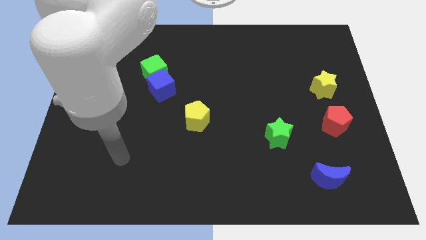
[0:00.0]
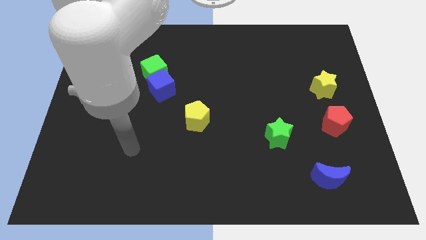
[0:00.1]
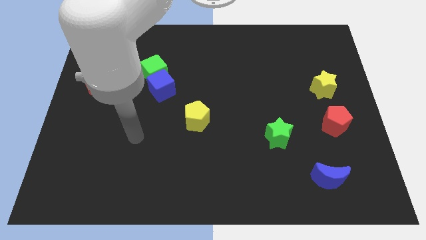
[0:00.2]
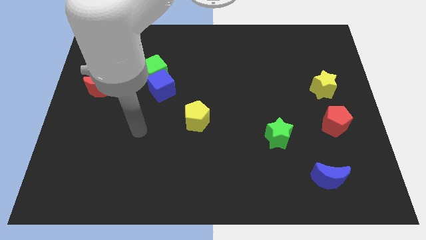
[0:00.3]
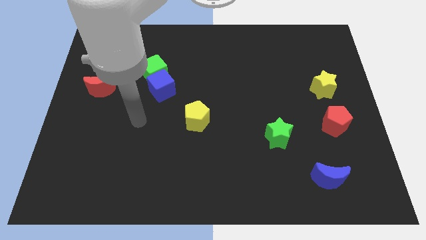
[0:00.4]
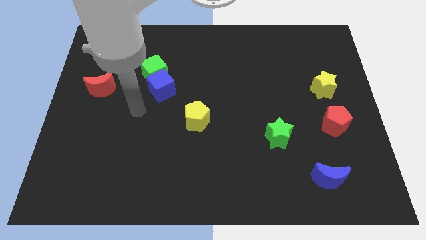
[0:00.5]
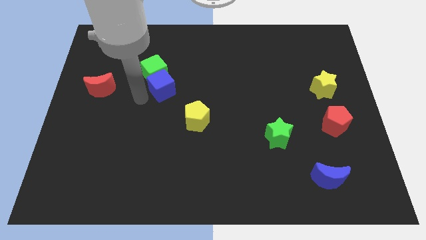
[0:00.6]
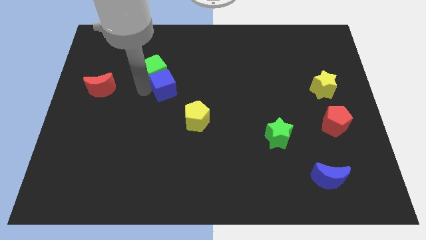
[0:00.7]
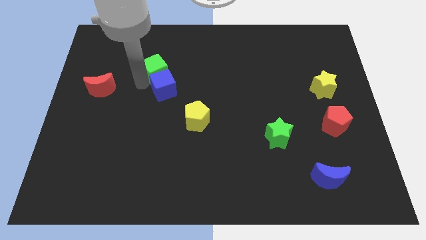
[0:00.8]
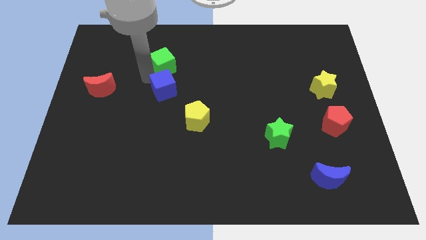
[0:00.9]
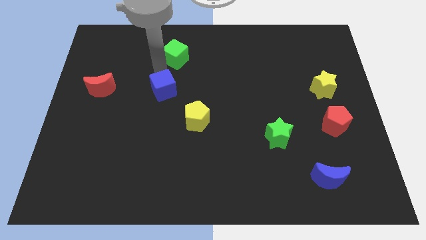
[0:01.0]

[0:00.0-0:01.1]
separate the blue cube from the green cube

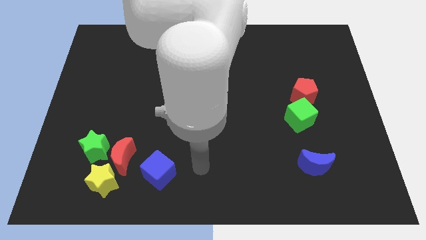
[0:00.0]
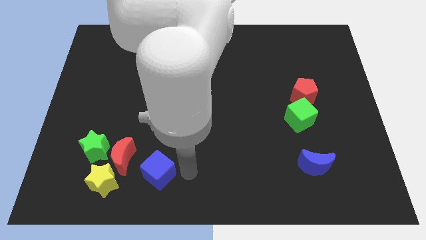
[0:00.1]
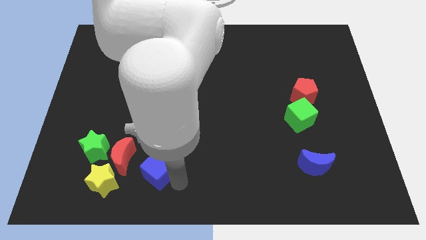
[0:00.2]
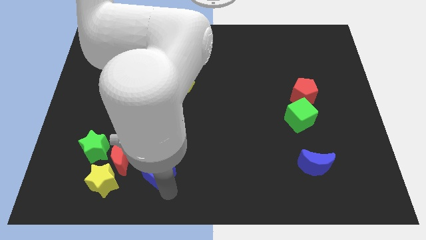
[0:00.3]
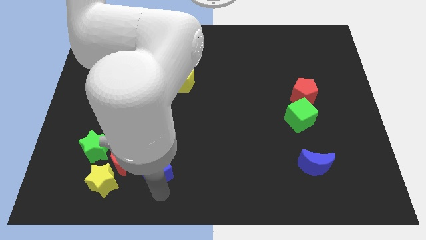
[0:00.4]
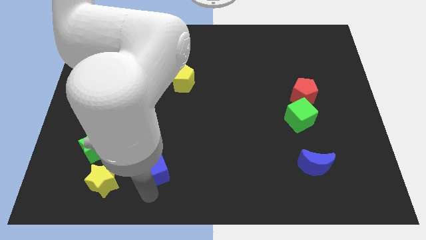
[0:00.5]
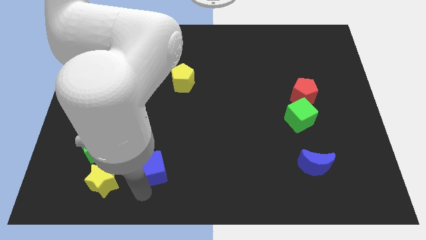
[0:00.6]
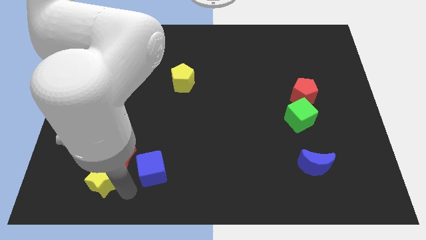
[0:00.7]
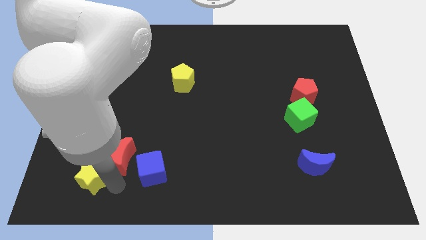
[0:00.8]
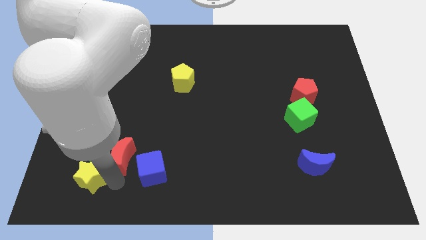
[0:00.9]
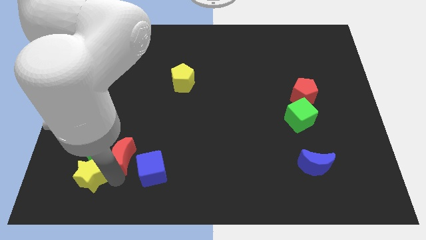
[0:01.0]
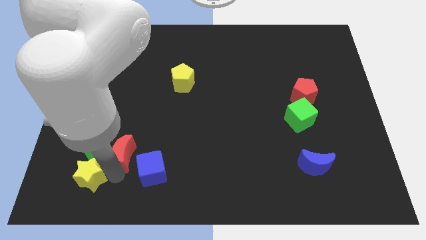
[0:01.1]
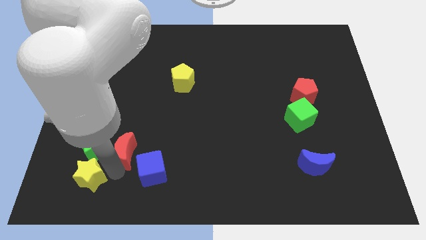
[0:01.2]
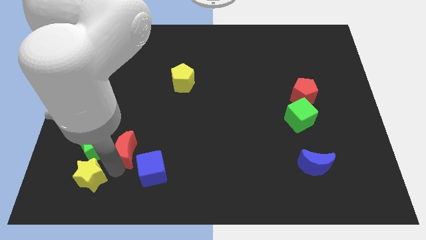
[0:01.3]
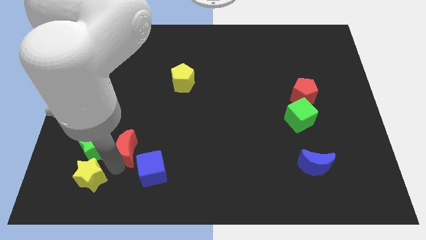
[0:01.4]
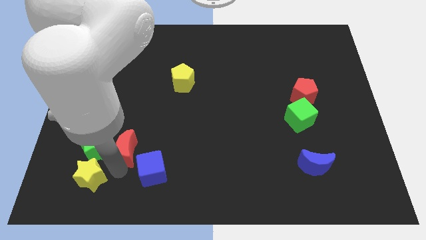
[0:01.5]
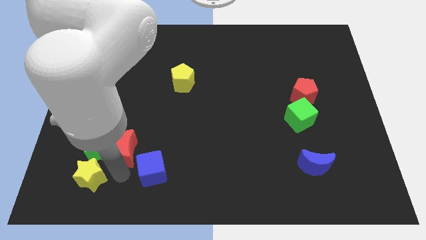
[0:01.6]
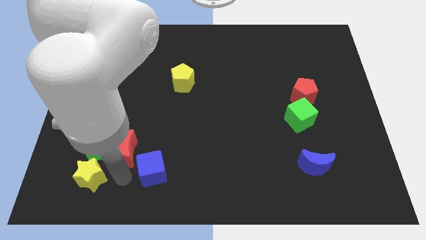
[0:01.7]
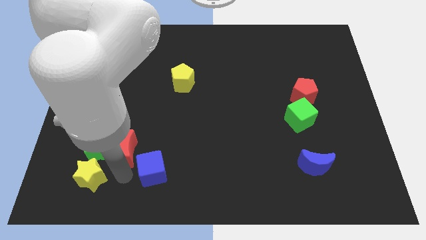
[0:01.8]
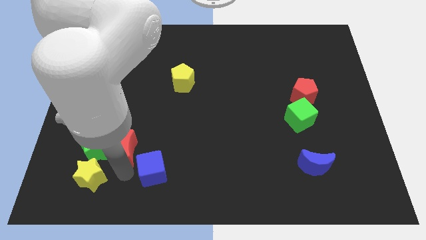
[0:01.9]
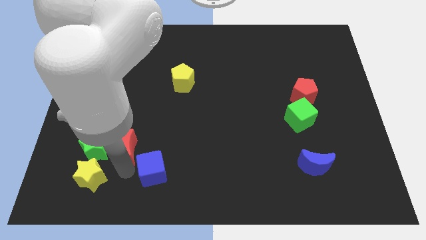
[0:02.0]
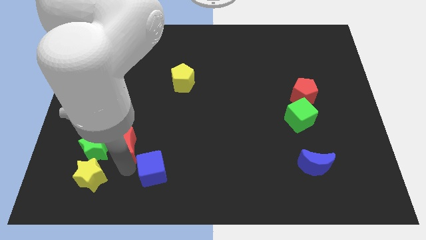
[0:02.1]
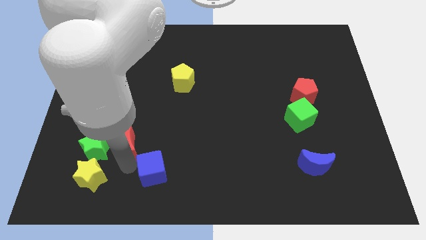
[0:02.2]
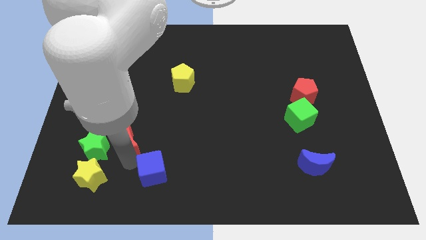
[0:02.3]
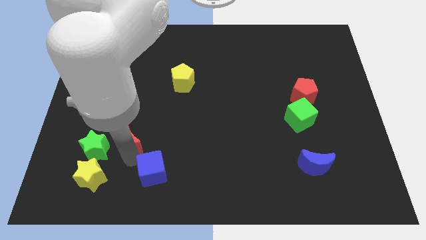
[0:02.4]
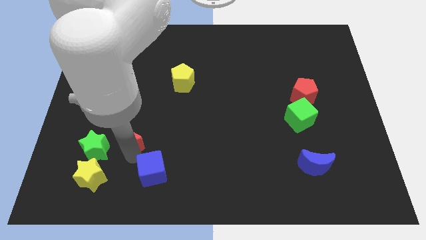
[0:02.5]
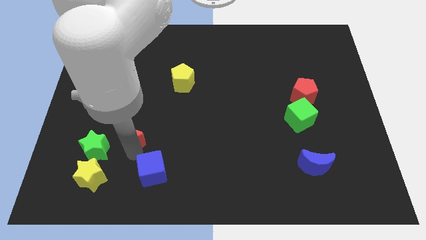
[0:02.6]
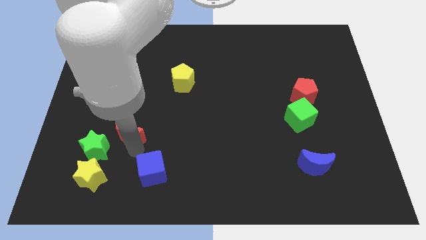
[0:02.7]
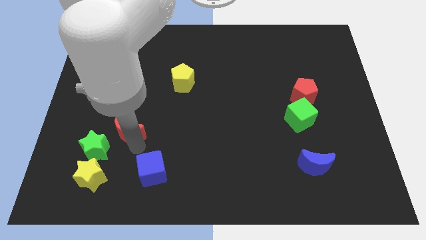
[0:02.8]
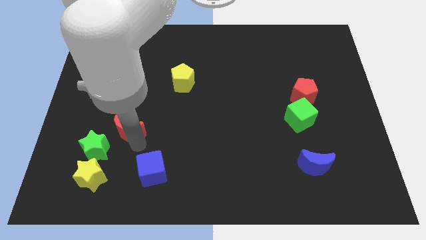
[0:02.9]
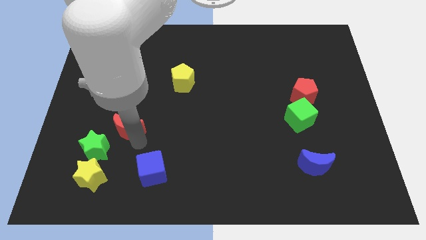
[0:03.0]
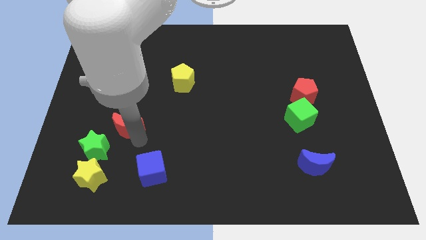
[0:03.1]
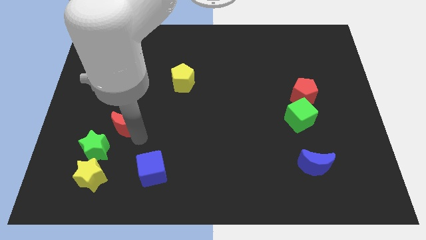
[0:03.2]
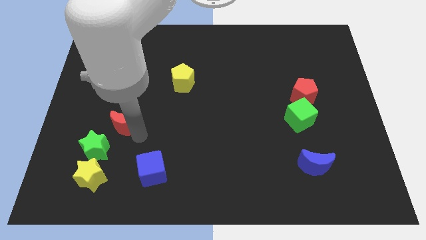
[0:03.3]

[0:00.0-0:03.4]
pull the red moon apart from the group

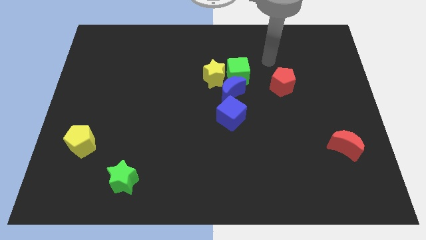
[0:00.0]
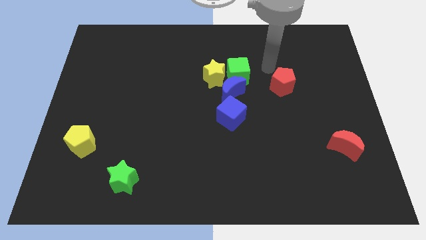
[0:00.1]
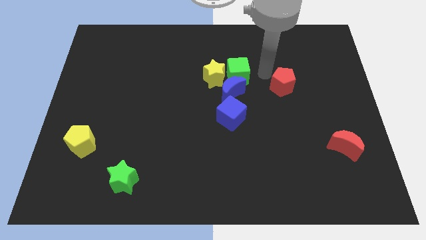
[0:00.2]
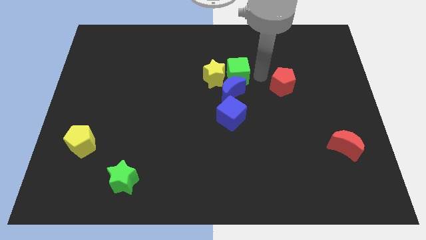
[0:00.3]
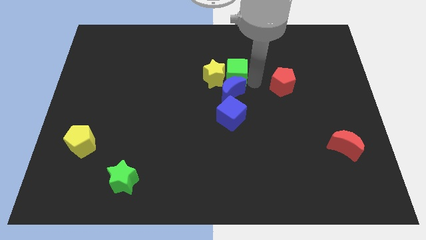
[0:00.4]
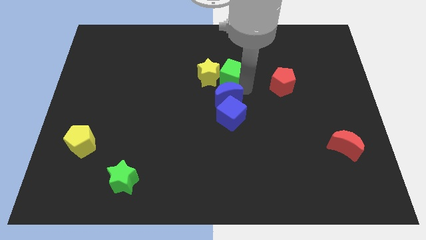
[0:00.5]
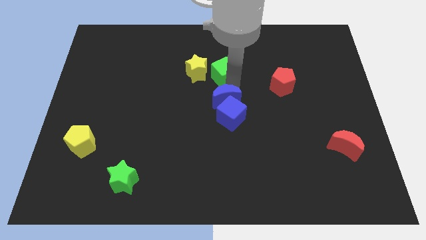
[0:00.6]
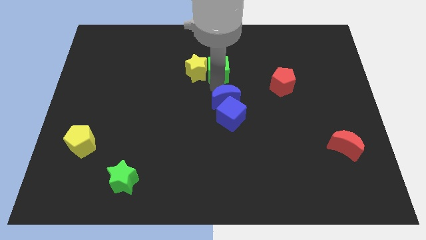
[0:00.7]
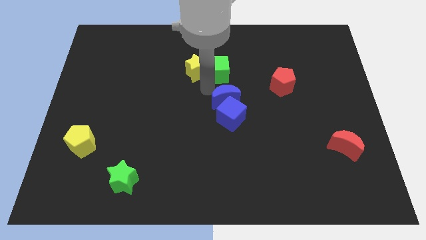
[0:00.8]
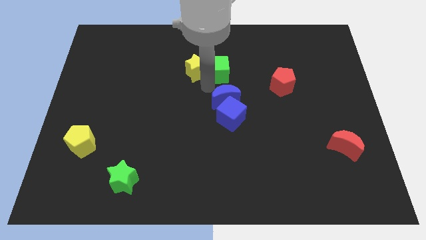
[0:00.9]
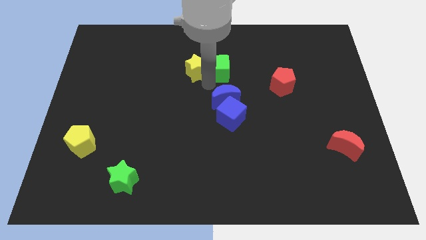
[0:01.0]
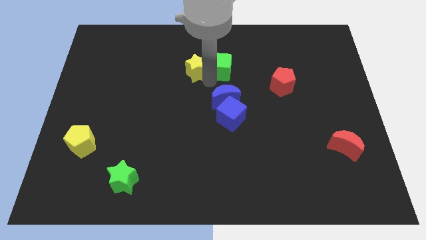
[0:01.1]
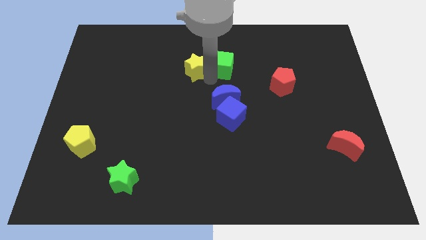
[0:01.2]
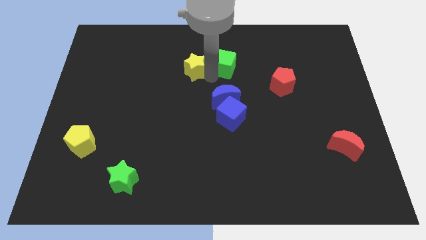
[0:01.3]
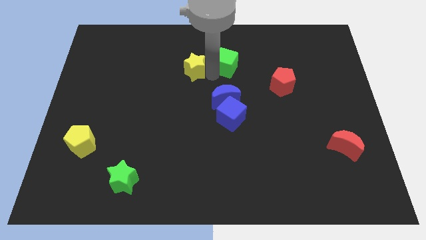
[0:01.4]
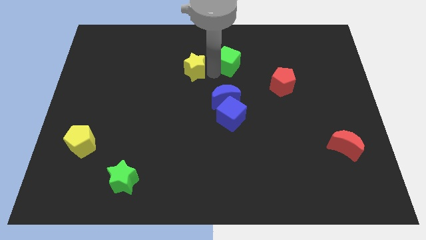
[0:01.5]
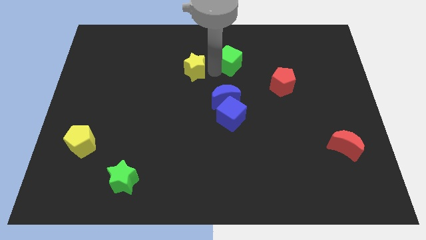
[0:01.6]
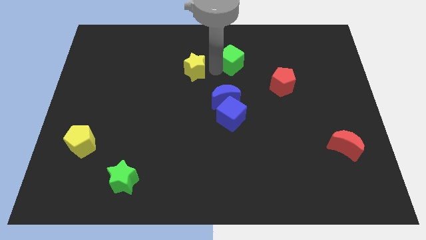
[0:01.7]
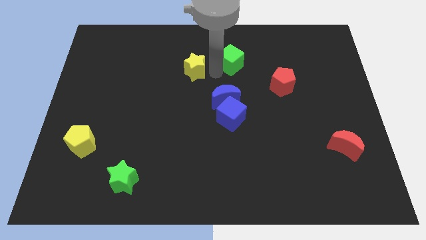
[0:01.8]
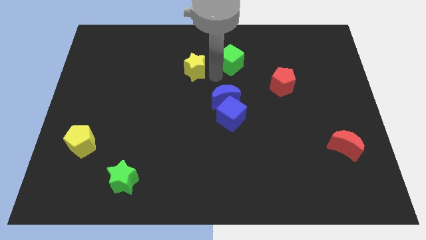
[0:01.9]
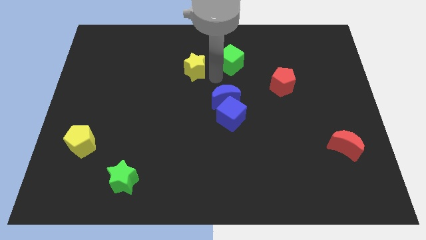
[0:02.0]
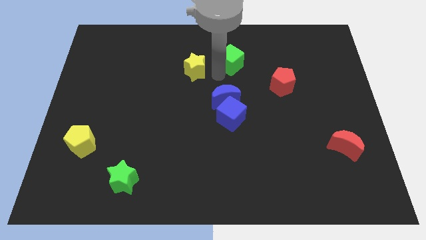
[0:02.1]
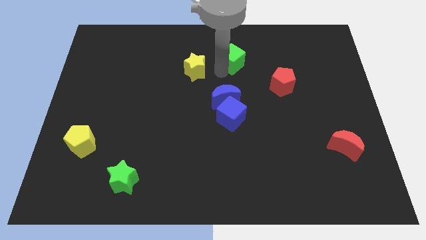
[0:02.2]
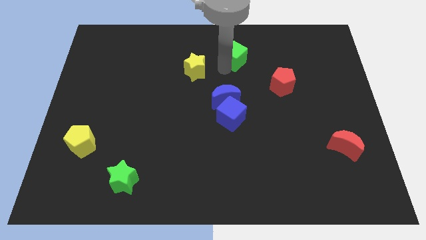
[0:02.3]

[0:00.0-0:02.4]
pull the green cube apart from the blue moon and yellow star

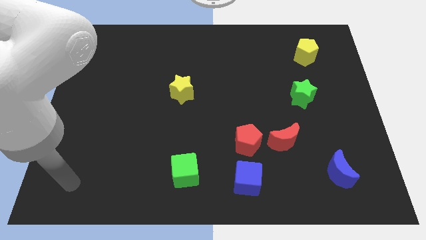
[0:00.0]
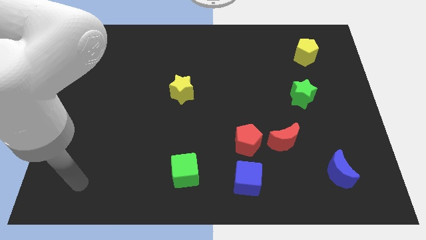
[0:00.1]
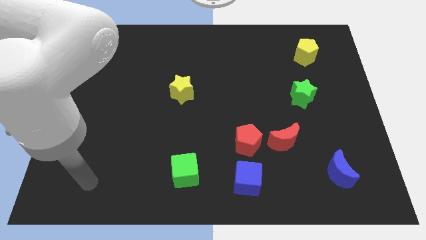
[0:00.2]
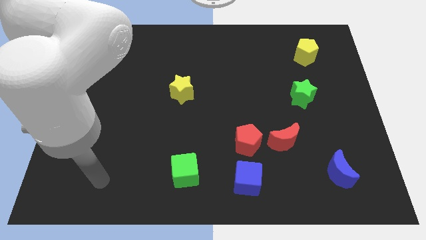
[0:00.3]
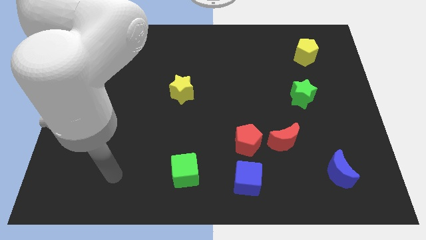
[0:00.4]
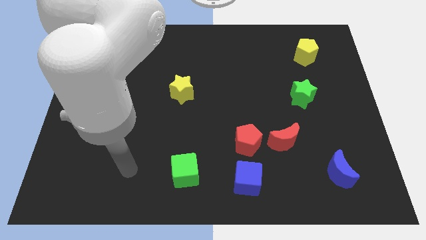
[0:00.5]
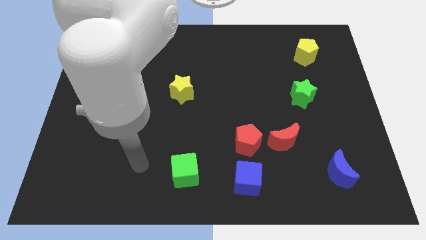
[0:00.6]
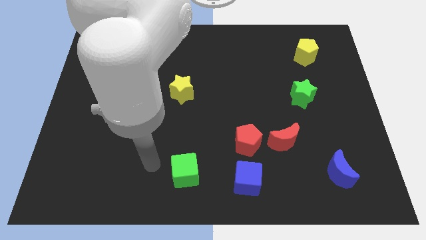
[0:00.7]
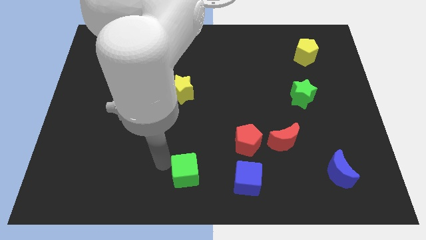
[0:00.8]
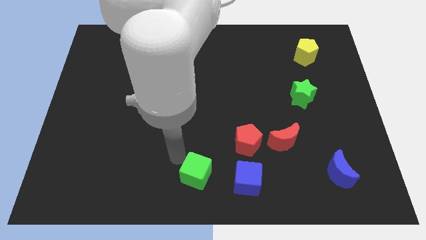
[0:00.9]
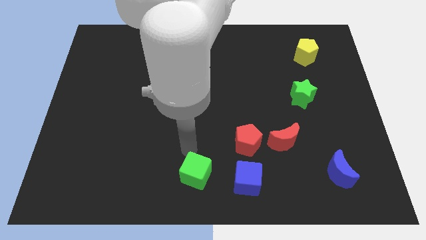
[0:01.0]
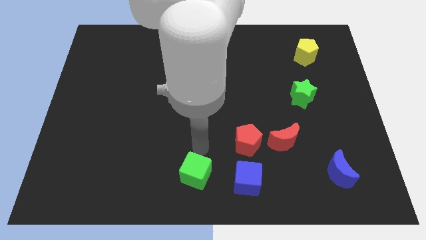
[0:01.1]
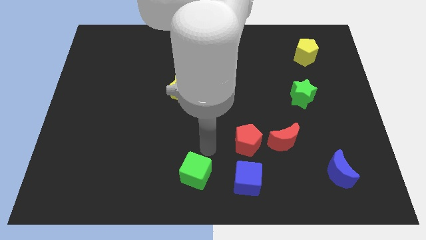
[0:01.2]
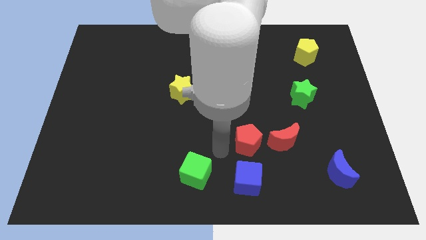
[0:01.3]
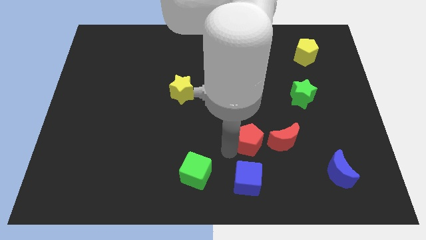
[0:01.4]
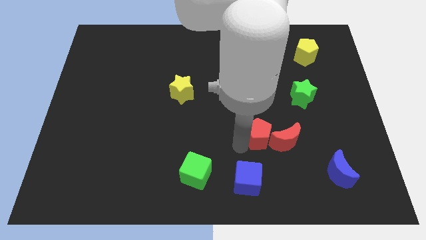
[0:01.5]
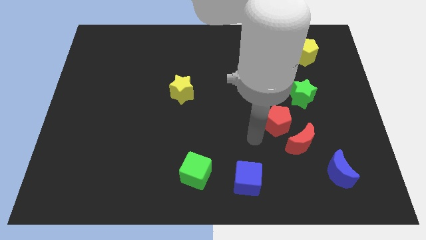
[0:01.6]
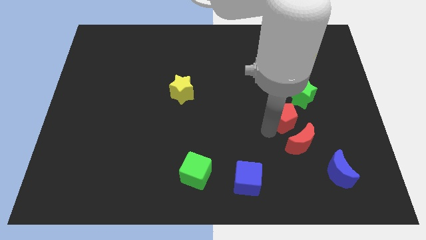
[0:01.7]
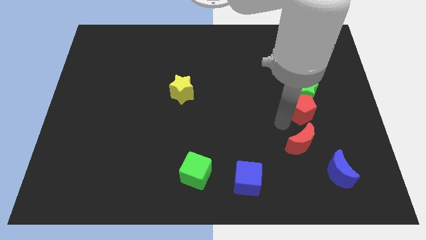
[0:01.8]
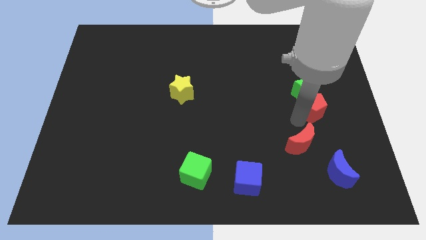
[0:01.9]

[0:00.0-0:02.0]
separate the red moon from the red pentagon

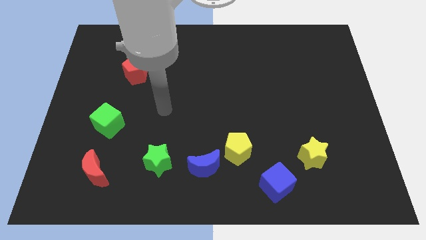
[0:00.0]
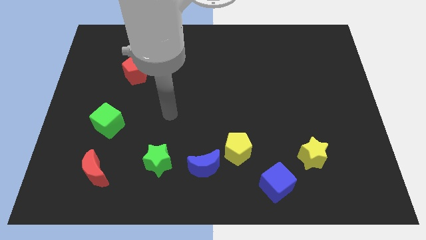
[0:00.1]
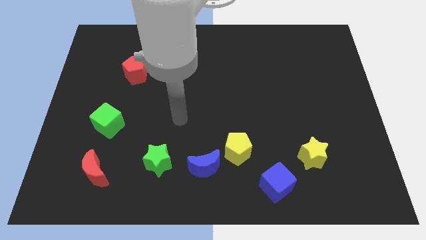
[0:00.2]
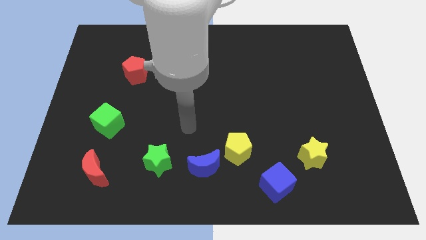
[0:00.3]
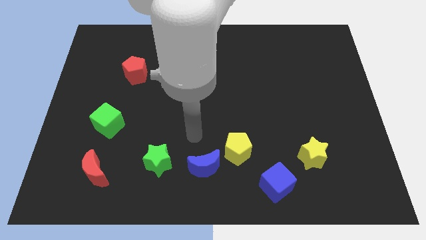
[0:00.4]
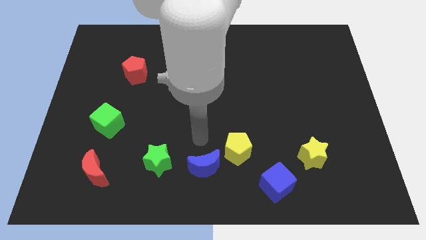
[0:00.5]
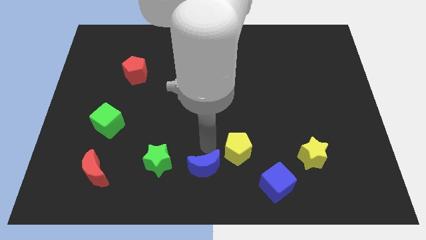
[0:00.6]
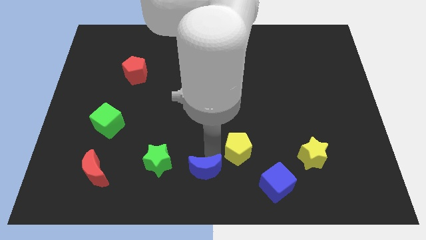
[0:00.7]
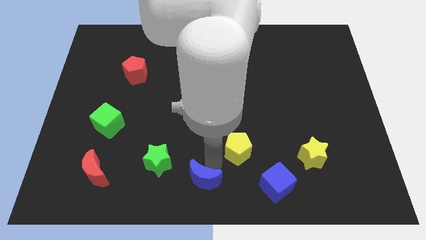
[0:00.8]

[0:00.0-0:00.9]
pull the yellow pentagon apart from the blue moon
